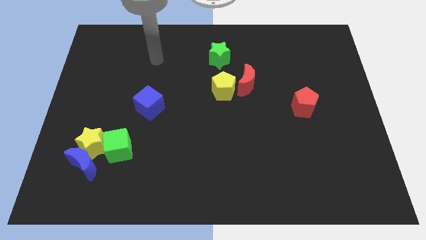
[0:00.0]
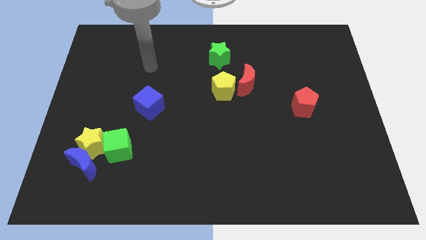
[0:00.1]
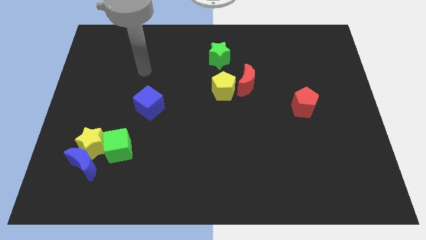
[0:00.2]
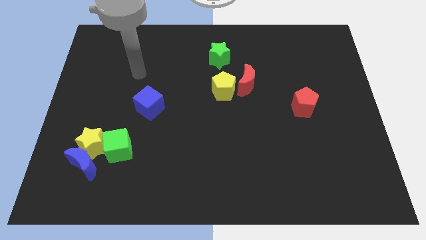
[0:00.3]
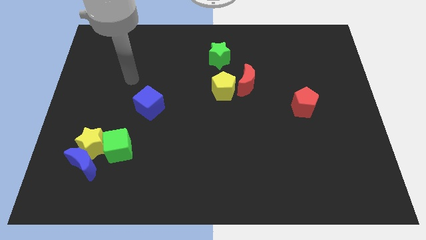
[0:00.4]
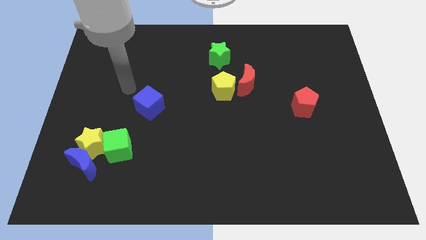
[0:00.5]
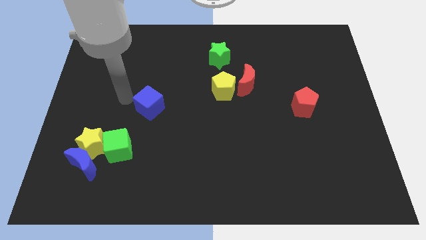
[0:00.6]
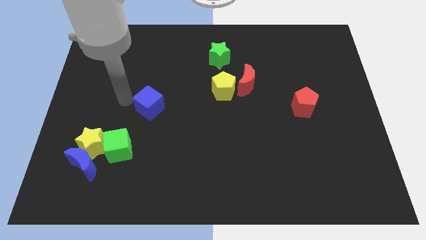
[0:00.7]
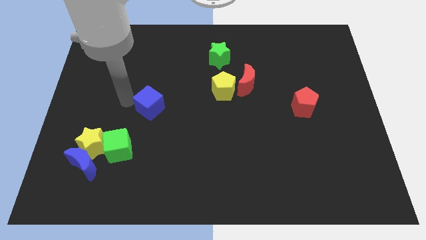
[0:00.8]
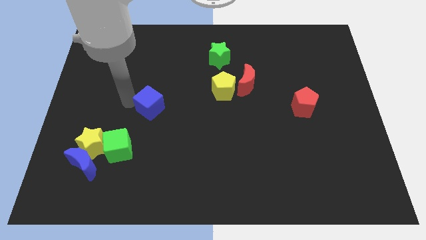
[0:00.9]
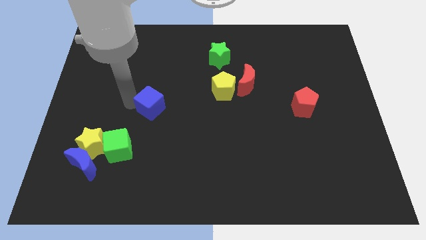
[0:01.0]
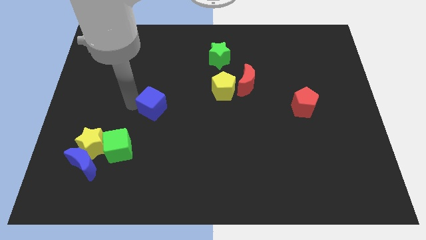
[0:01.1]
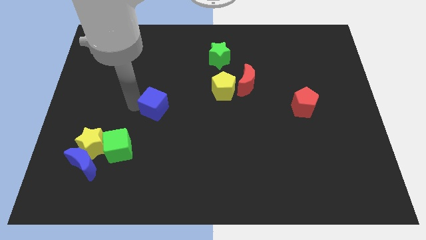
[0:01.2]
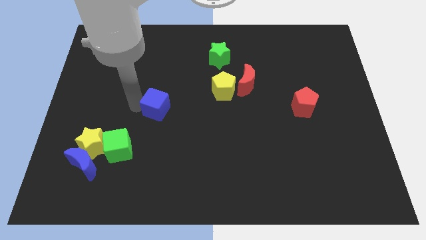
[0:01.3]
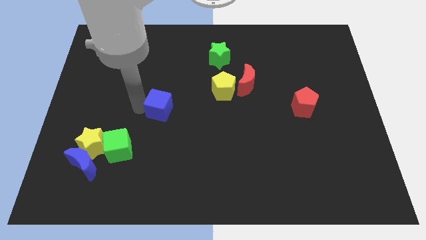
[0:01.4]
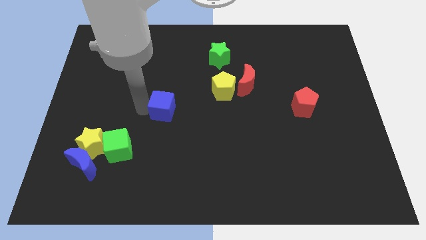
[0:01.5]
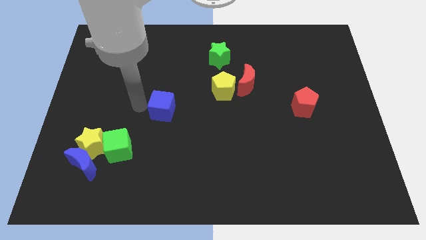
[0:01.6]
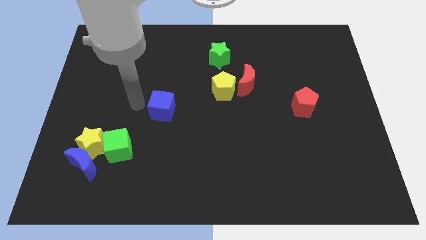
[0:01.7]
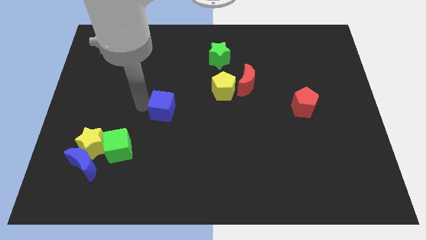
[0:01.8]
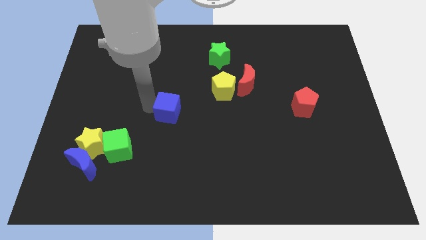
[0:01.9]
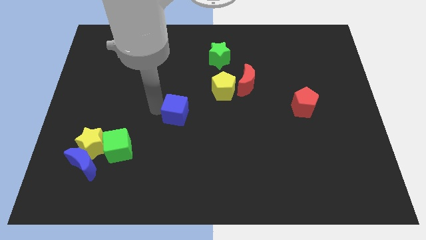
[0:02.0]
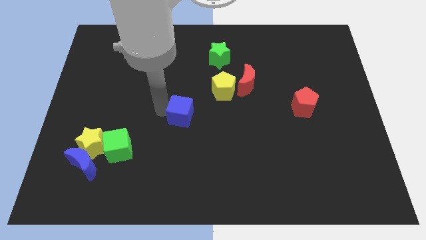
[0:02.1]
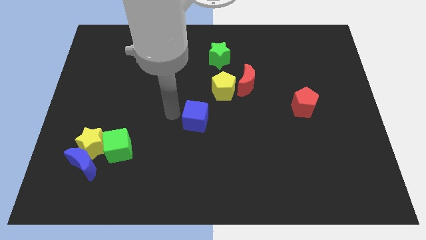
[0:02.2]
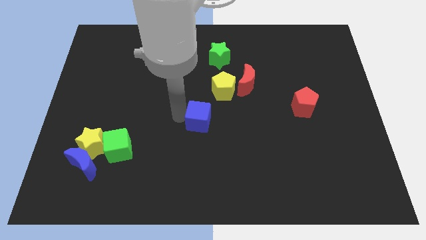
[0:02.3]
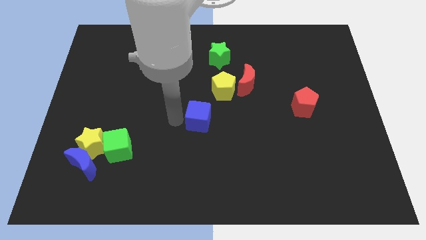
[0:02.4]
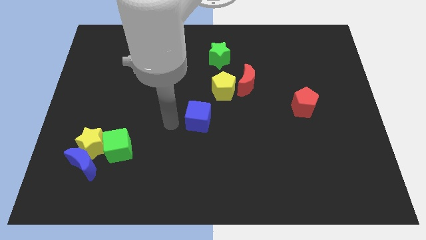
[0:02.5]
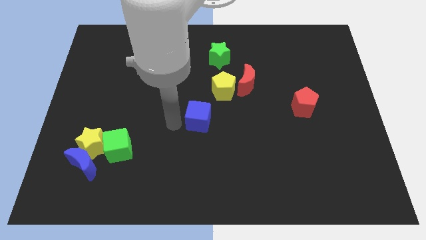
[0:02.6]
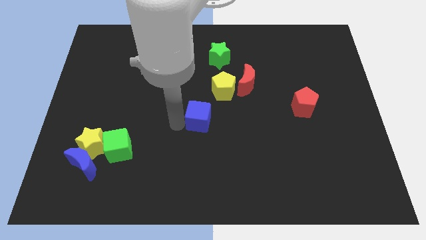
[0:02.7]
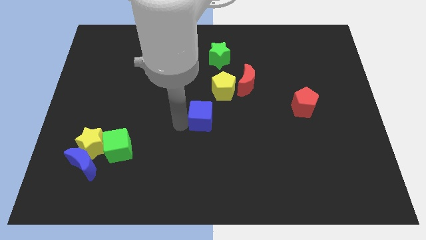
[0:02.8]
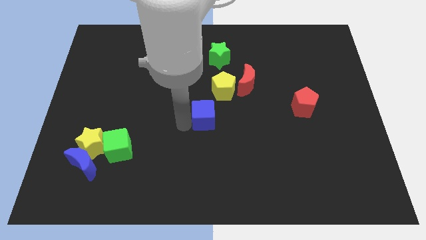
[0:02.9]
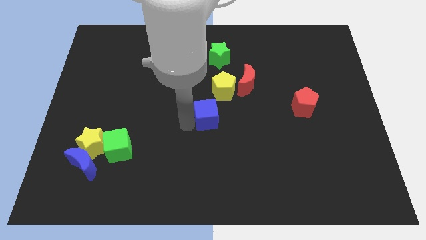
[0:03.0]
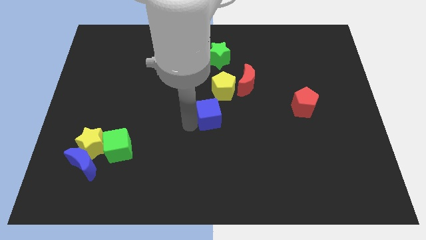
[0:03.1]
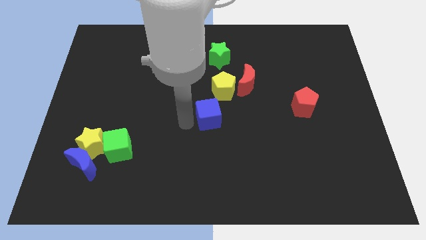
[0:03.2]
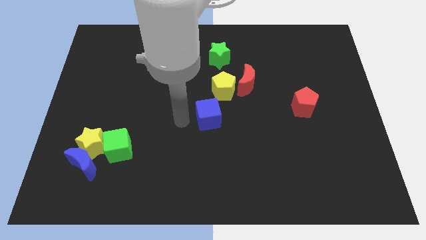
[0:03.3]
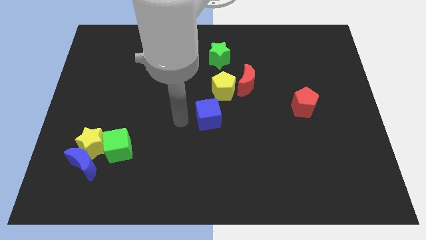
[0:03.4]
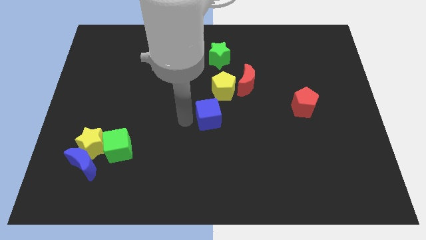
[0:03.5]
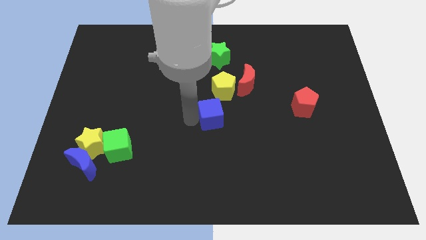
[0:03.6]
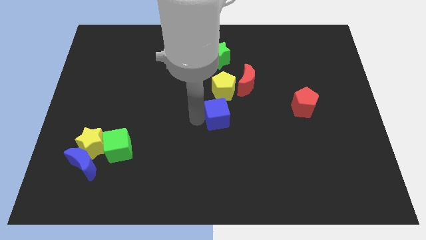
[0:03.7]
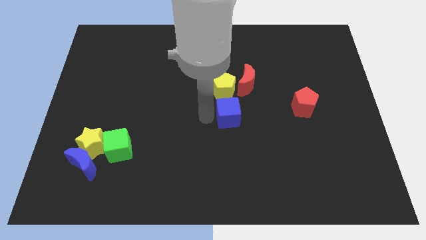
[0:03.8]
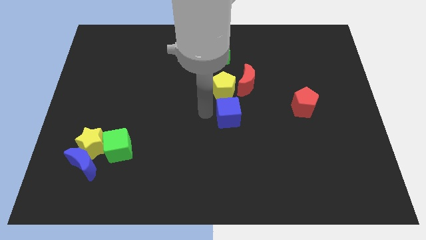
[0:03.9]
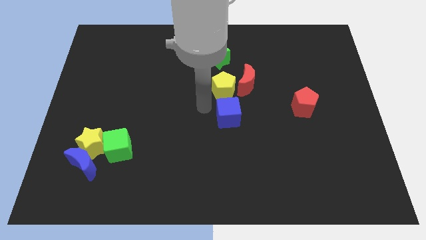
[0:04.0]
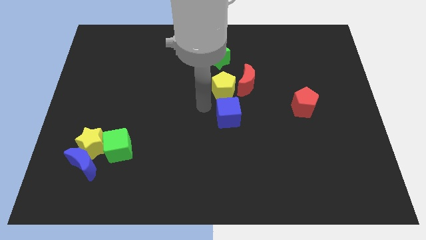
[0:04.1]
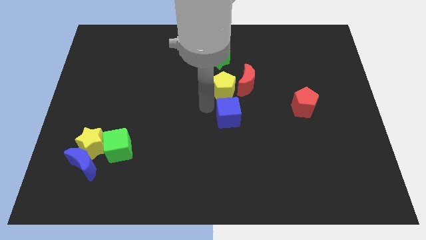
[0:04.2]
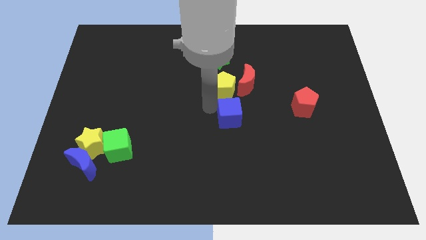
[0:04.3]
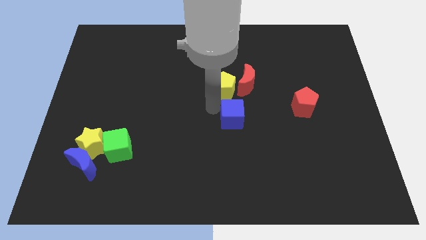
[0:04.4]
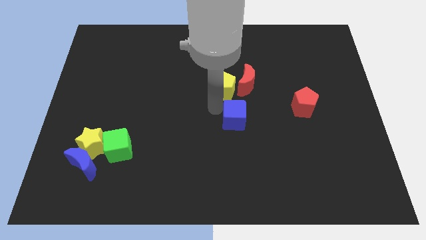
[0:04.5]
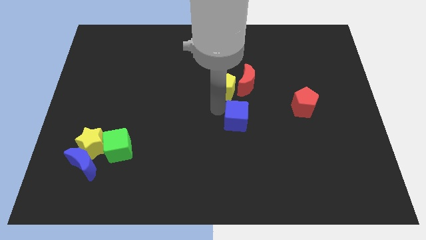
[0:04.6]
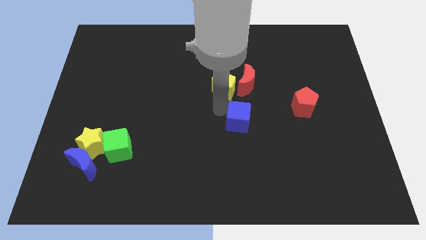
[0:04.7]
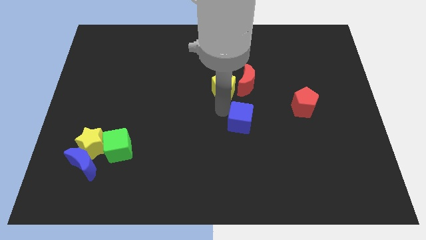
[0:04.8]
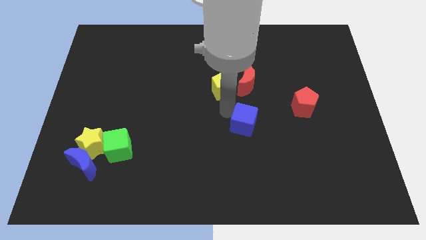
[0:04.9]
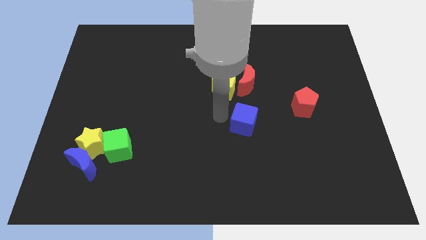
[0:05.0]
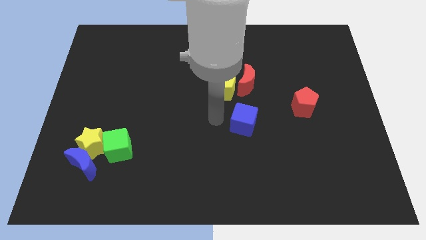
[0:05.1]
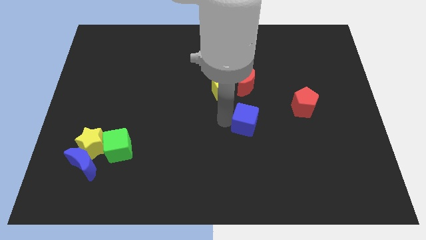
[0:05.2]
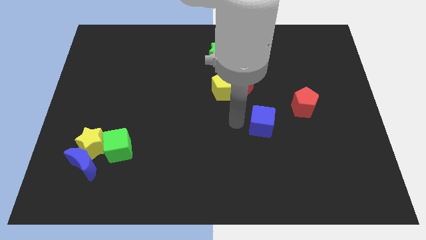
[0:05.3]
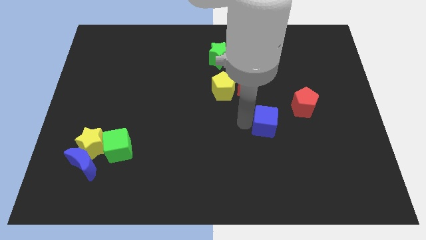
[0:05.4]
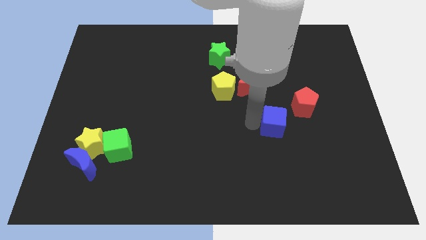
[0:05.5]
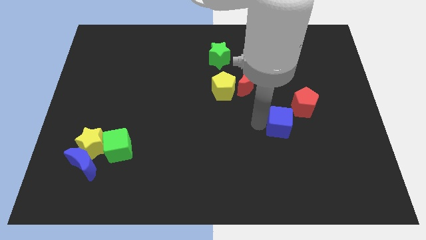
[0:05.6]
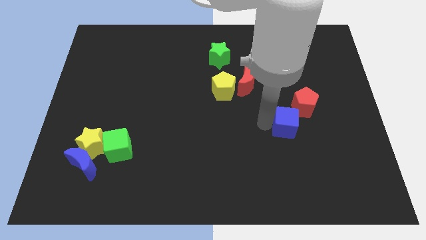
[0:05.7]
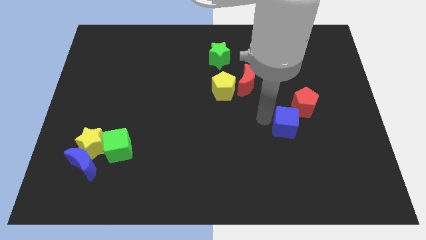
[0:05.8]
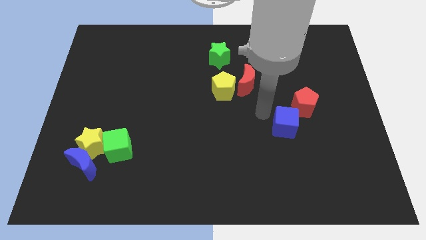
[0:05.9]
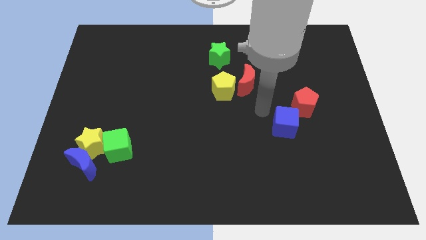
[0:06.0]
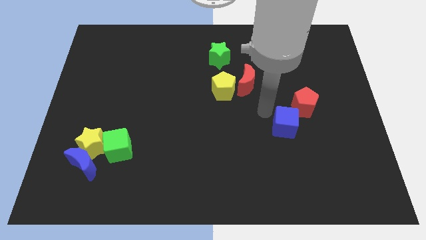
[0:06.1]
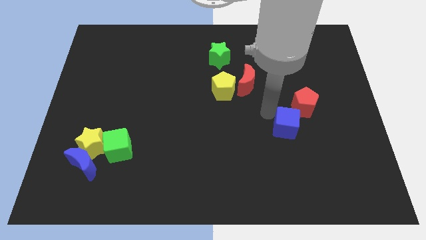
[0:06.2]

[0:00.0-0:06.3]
slide the blue cube to the bottom side of the red pentagon
